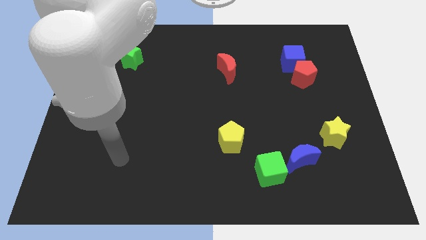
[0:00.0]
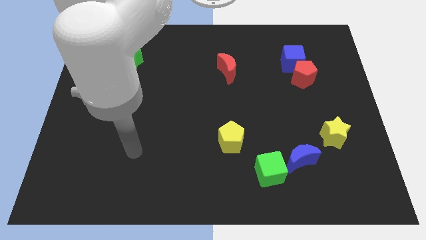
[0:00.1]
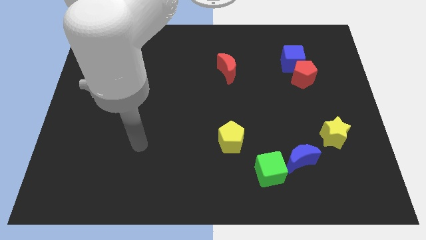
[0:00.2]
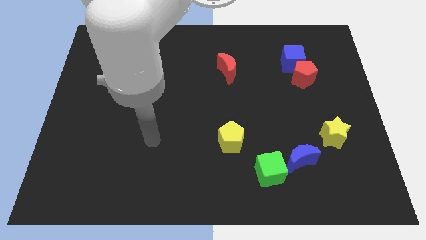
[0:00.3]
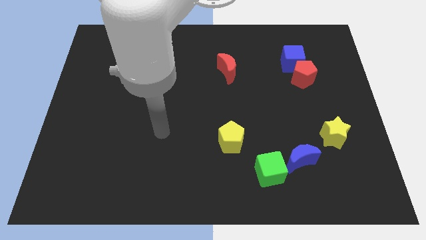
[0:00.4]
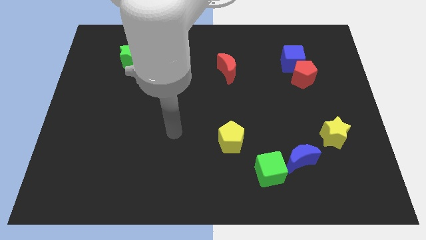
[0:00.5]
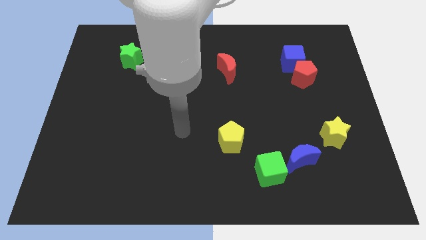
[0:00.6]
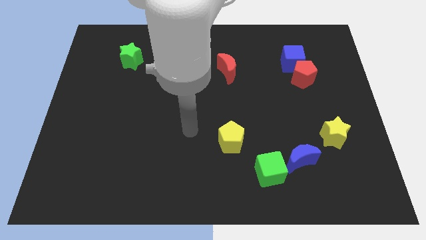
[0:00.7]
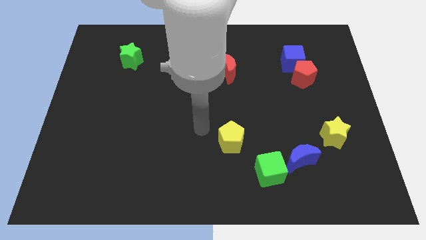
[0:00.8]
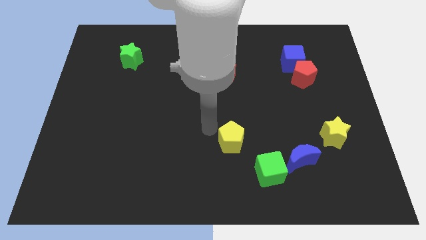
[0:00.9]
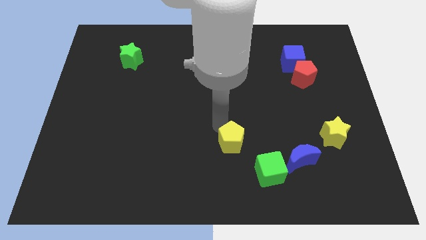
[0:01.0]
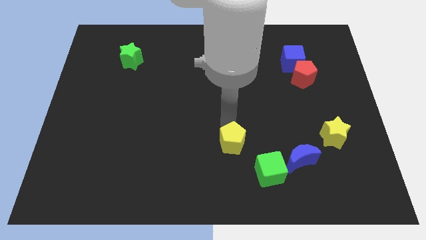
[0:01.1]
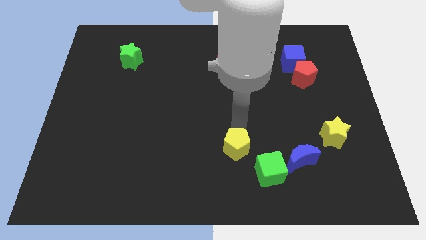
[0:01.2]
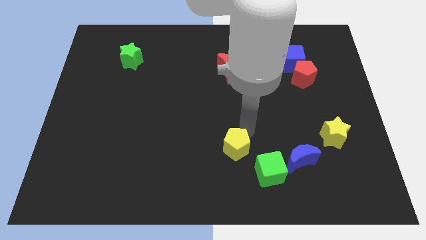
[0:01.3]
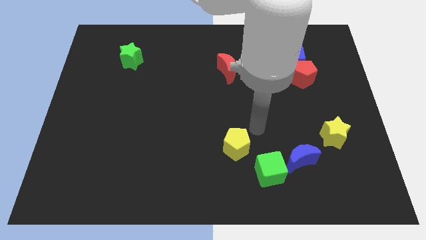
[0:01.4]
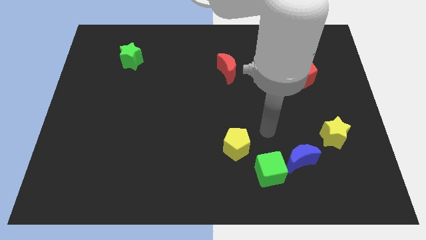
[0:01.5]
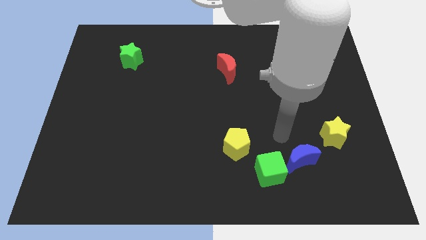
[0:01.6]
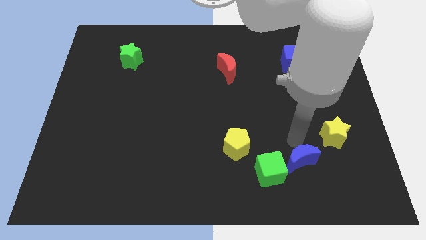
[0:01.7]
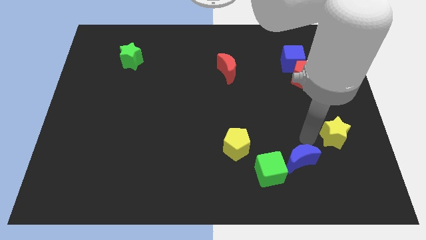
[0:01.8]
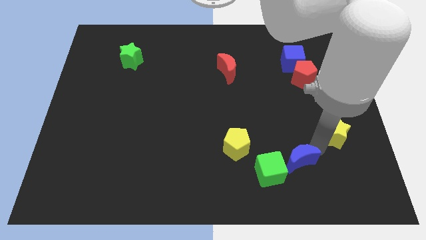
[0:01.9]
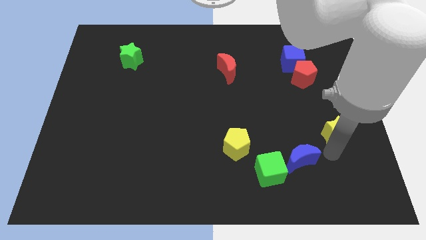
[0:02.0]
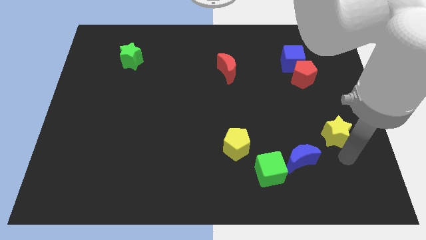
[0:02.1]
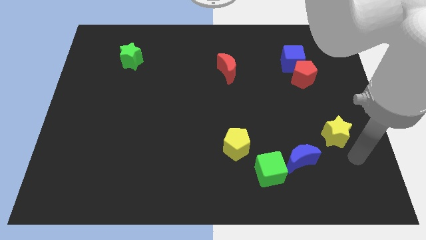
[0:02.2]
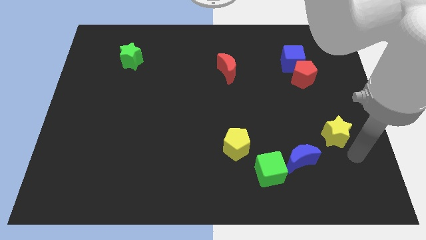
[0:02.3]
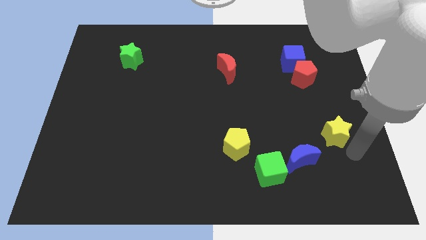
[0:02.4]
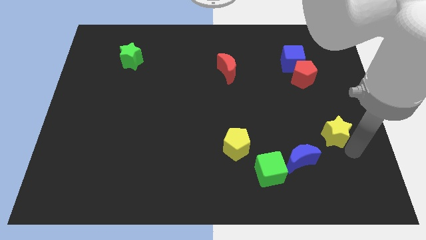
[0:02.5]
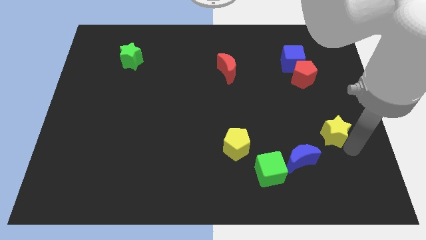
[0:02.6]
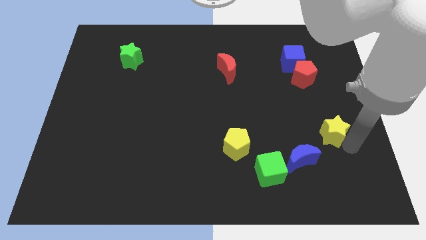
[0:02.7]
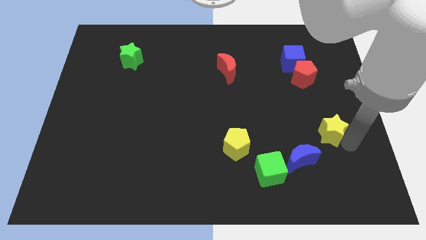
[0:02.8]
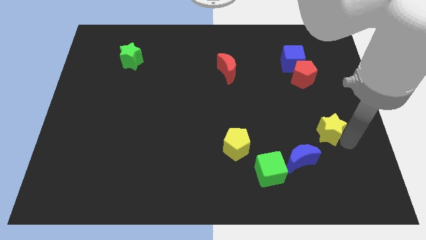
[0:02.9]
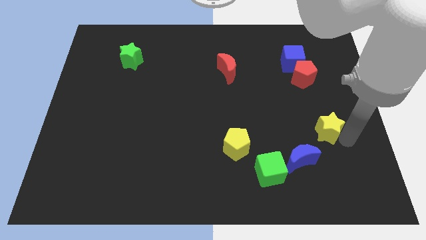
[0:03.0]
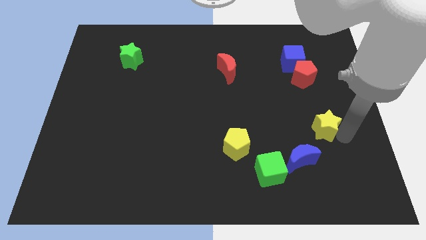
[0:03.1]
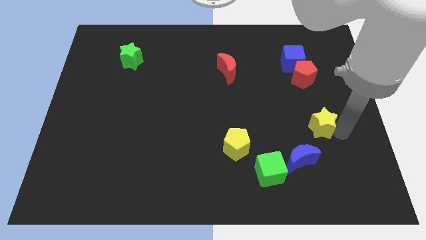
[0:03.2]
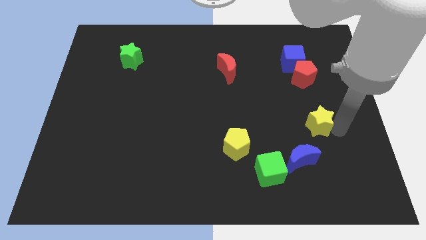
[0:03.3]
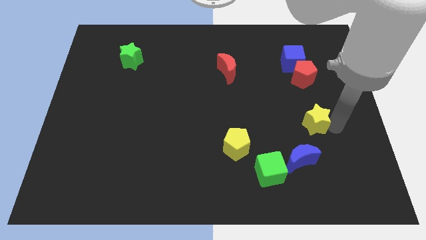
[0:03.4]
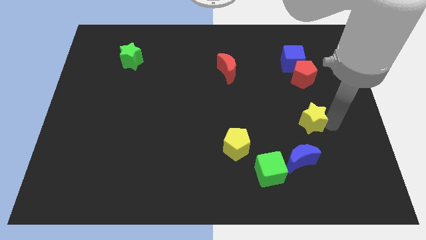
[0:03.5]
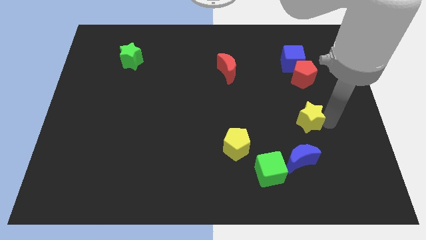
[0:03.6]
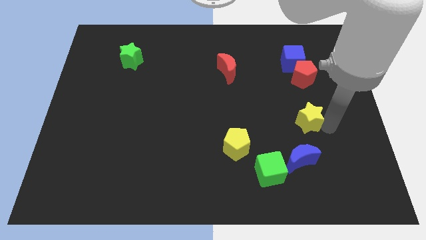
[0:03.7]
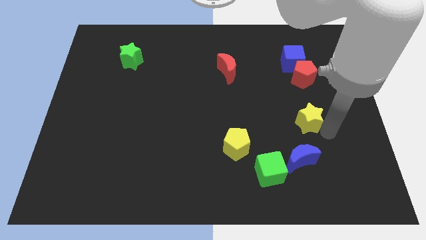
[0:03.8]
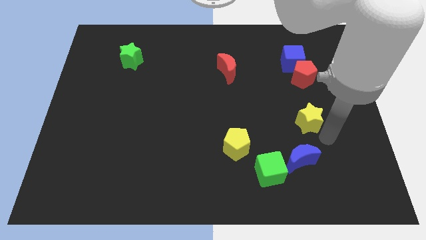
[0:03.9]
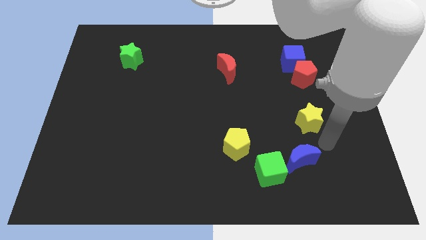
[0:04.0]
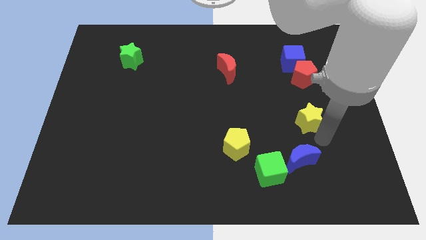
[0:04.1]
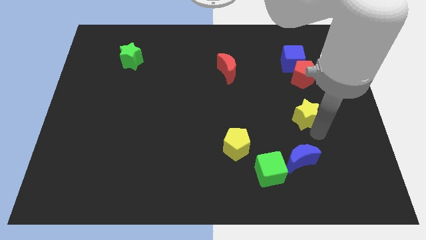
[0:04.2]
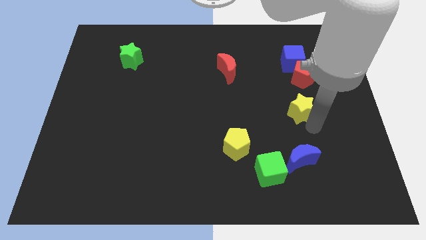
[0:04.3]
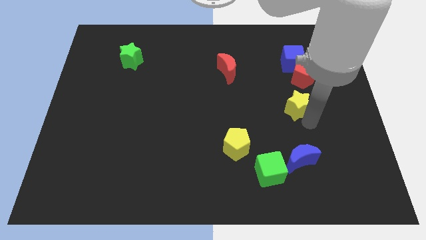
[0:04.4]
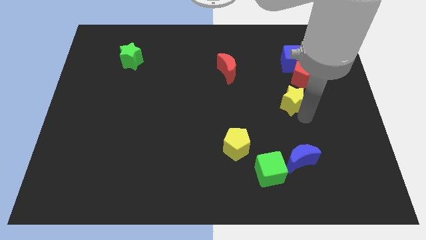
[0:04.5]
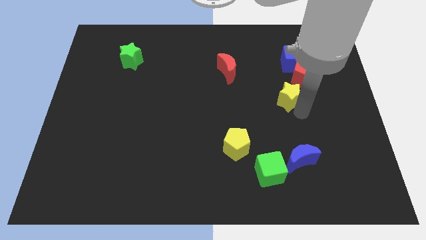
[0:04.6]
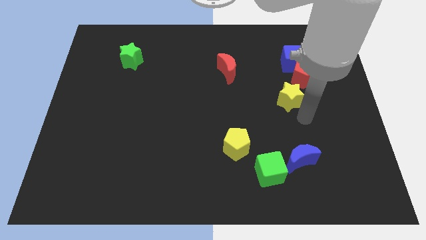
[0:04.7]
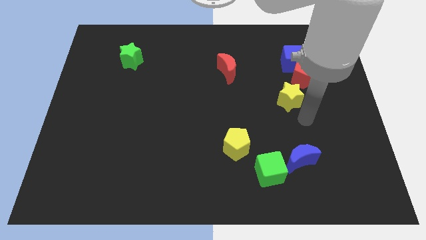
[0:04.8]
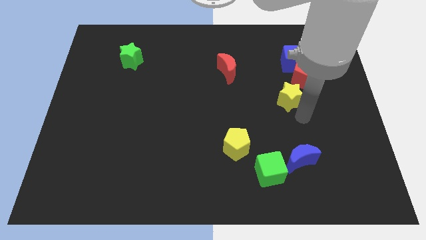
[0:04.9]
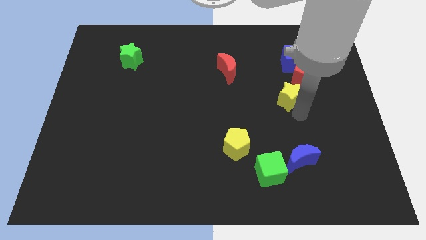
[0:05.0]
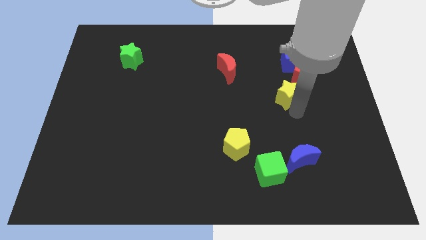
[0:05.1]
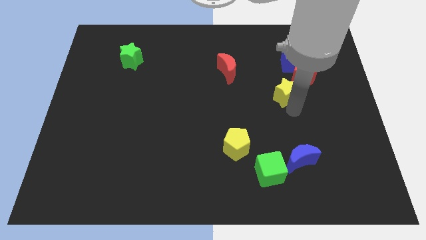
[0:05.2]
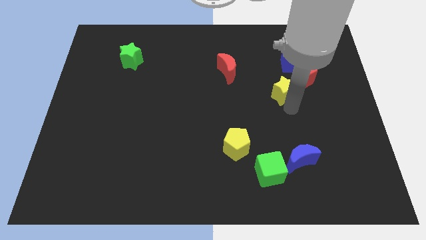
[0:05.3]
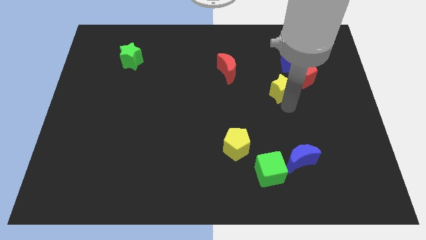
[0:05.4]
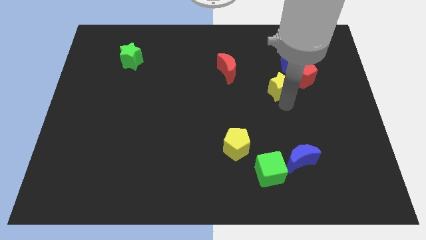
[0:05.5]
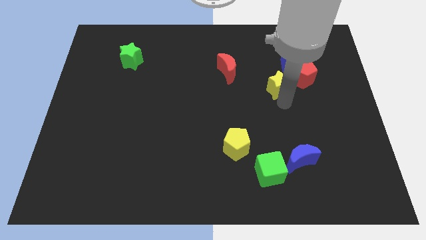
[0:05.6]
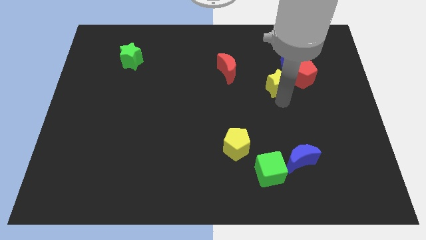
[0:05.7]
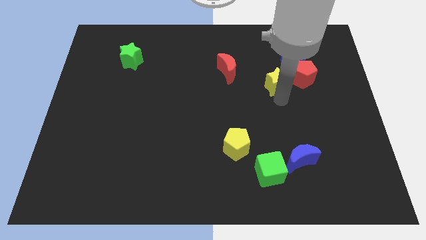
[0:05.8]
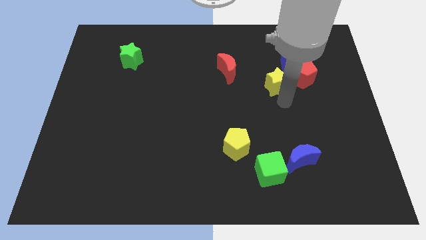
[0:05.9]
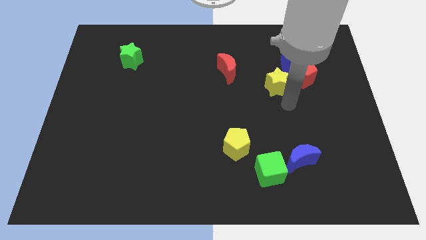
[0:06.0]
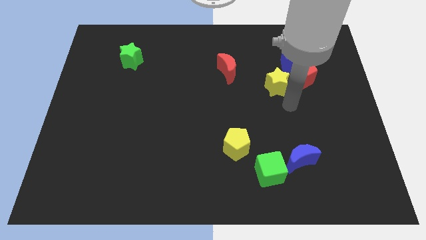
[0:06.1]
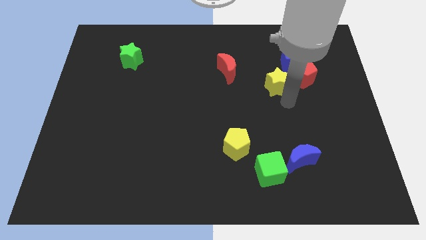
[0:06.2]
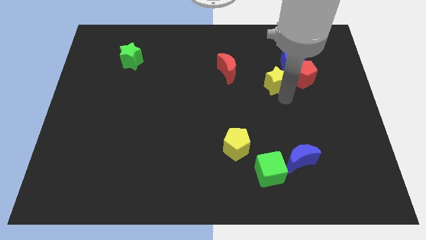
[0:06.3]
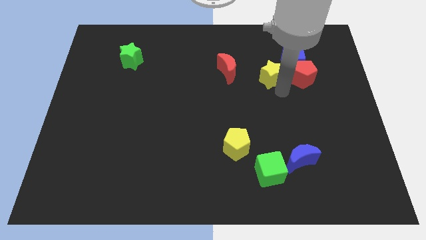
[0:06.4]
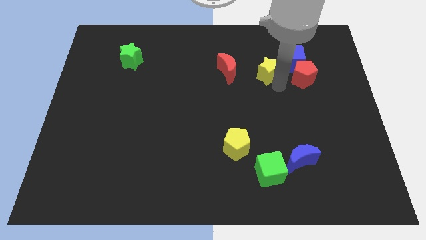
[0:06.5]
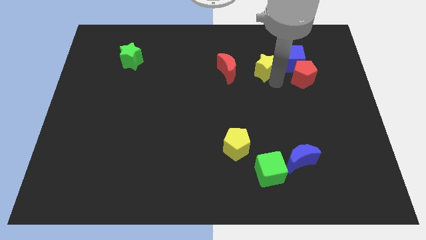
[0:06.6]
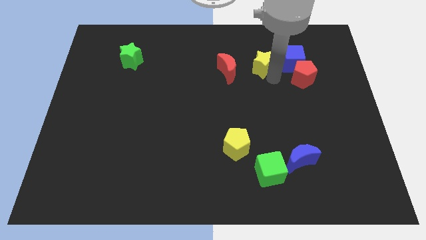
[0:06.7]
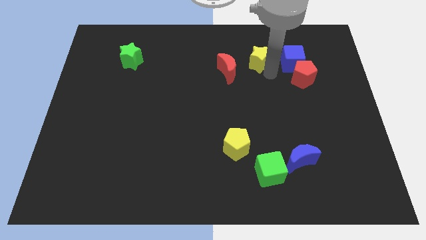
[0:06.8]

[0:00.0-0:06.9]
put the yellow star to the top right of the red moon

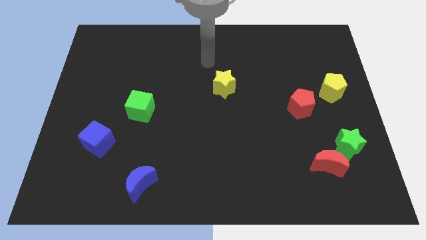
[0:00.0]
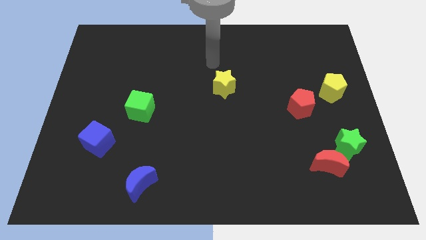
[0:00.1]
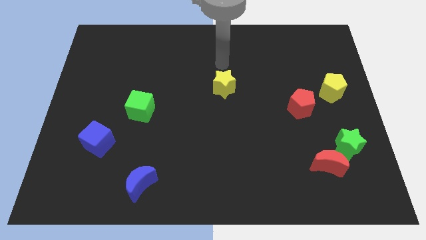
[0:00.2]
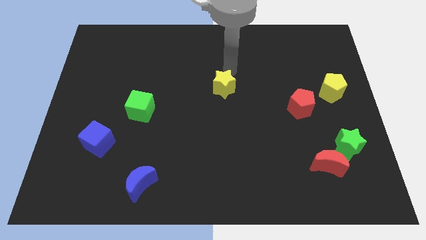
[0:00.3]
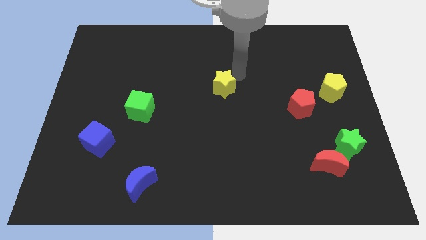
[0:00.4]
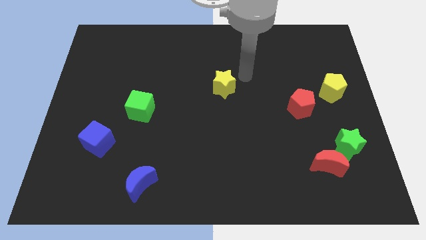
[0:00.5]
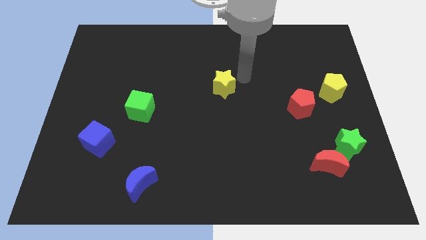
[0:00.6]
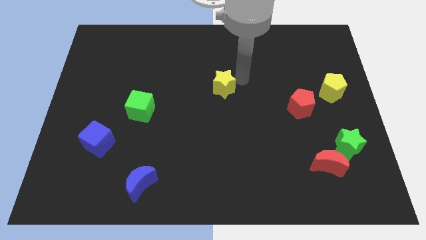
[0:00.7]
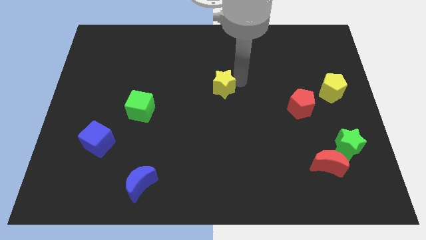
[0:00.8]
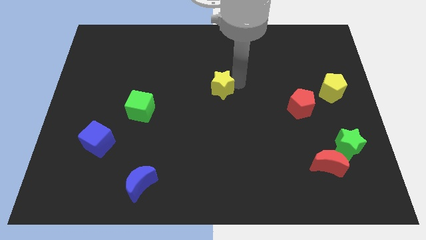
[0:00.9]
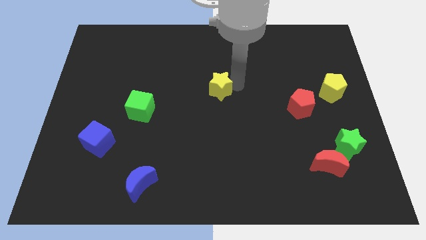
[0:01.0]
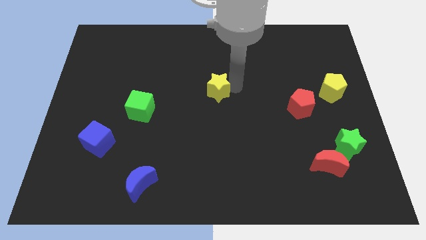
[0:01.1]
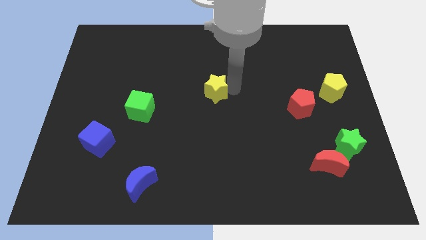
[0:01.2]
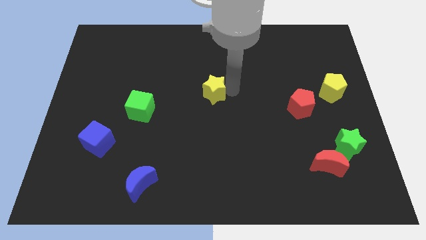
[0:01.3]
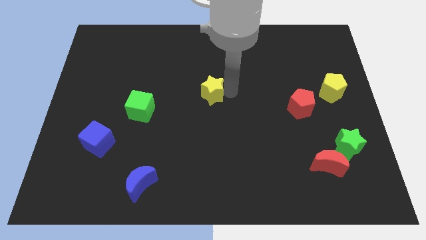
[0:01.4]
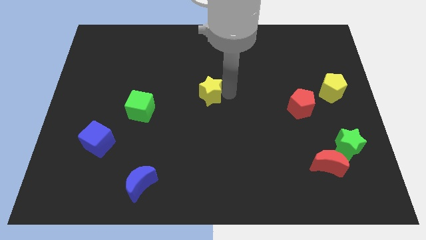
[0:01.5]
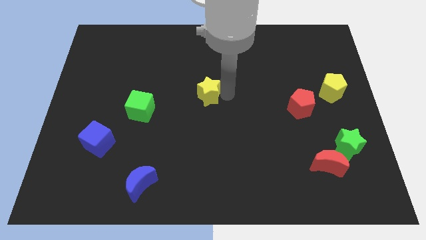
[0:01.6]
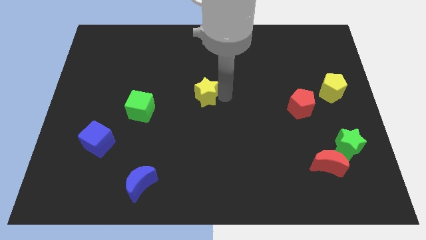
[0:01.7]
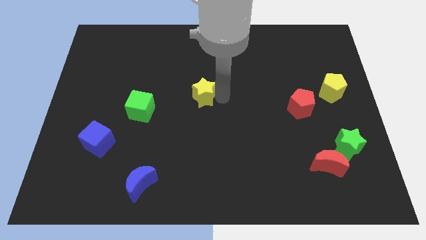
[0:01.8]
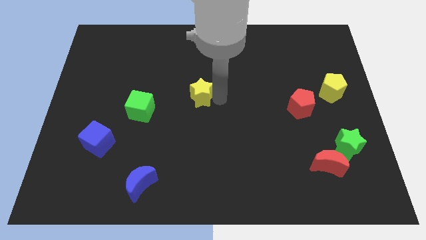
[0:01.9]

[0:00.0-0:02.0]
slide the yellow star just right of the green cube
